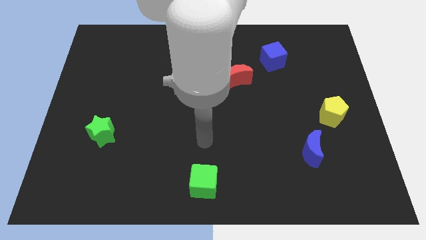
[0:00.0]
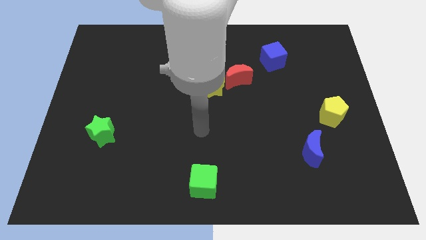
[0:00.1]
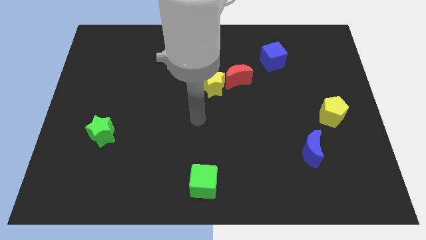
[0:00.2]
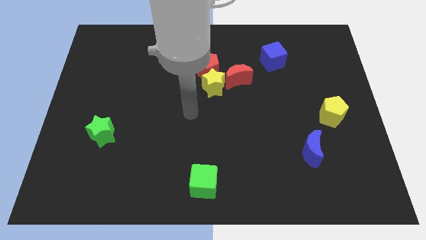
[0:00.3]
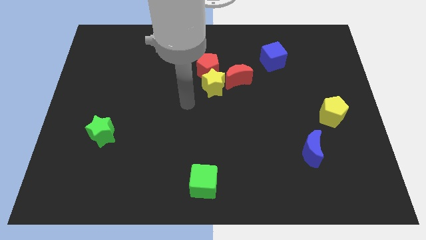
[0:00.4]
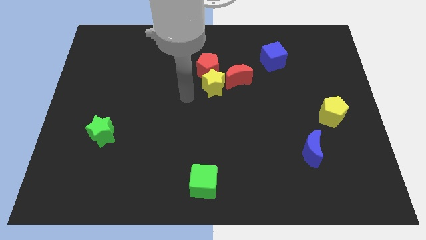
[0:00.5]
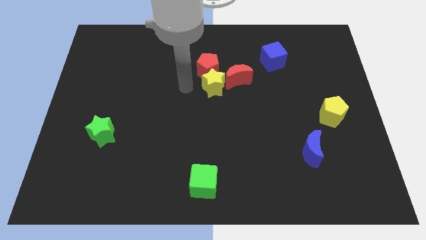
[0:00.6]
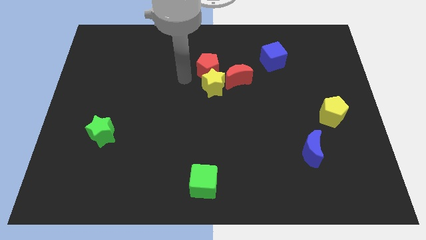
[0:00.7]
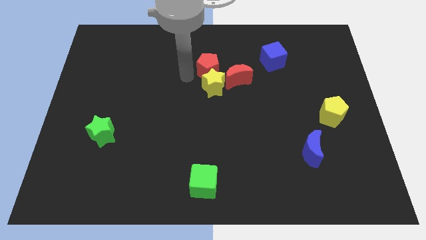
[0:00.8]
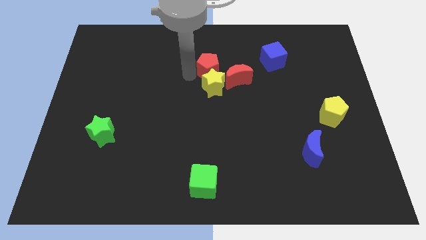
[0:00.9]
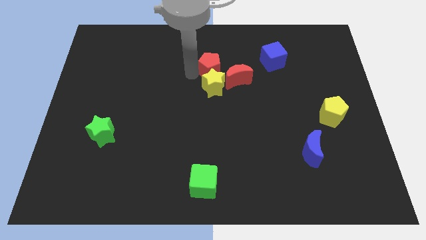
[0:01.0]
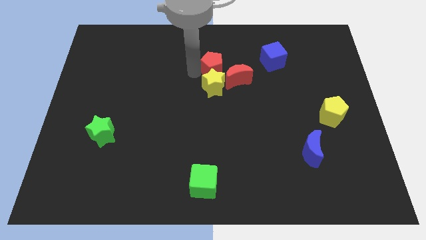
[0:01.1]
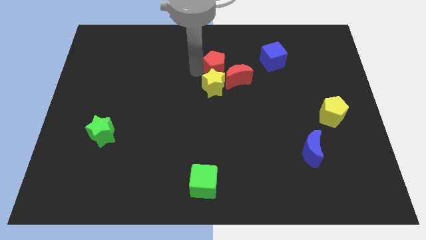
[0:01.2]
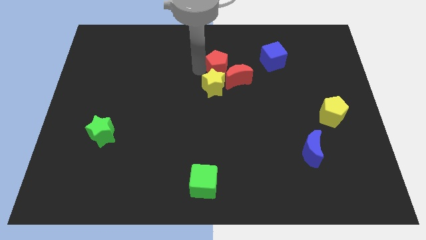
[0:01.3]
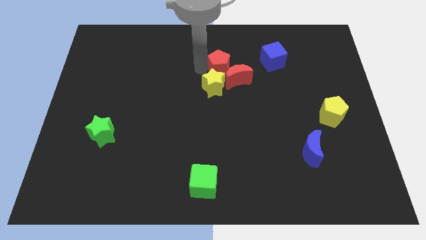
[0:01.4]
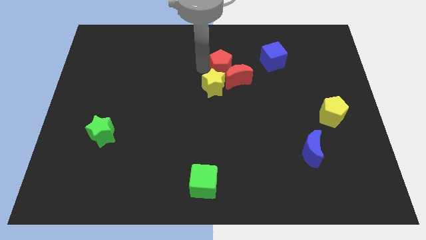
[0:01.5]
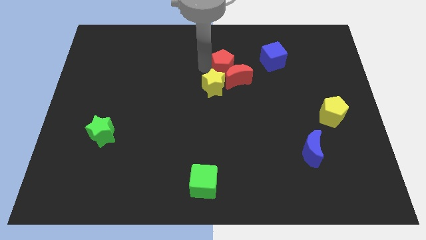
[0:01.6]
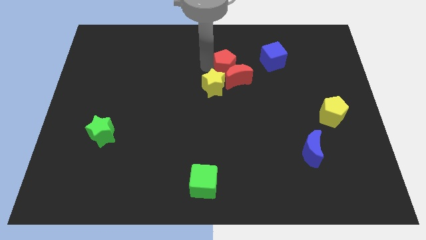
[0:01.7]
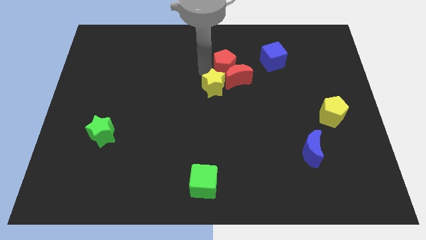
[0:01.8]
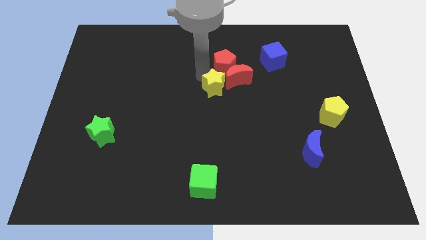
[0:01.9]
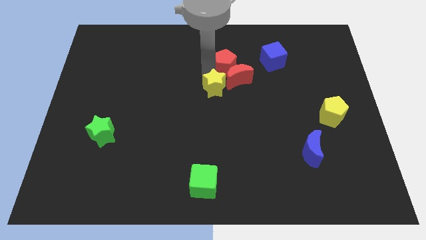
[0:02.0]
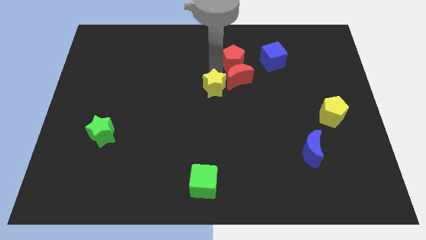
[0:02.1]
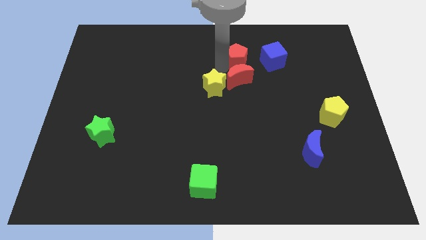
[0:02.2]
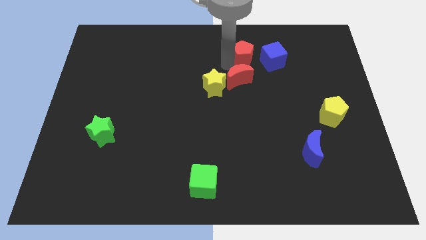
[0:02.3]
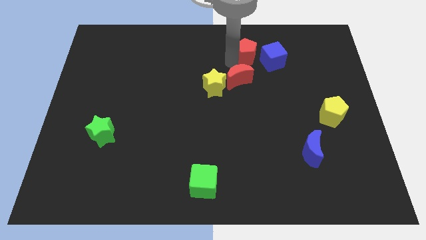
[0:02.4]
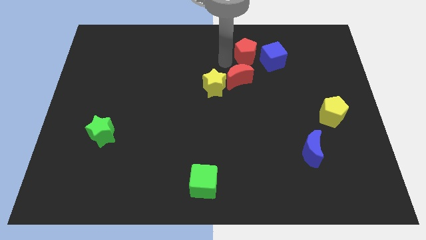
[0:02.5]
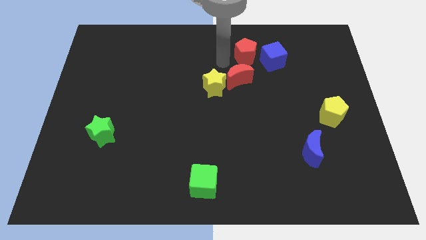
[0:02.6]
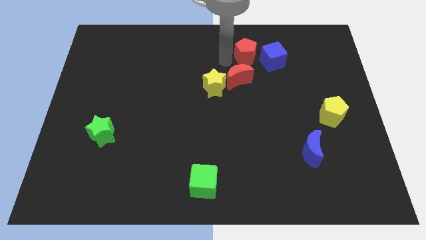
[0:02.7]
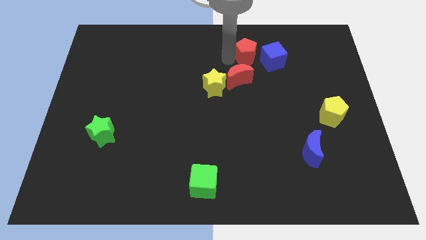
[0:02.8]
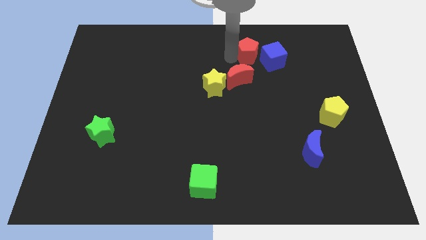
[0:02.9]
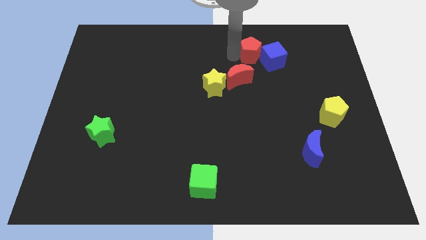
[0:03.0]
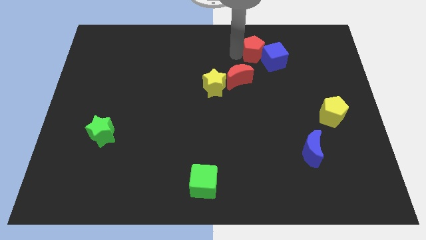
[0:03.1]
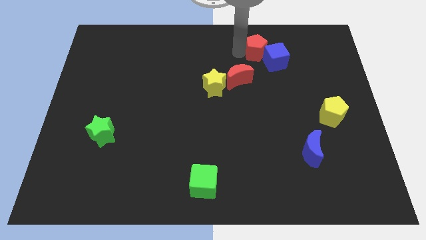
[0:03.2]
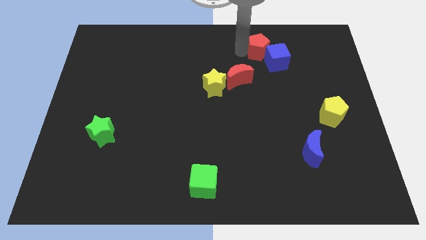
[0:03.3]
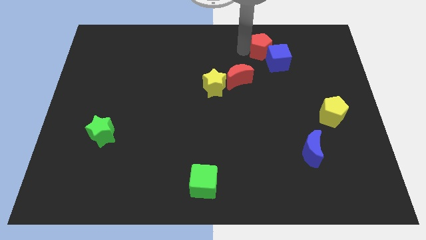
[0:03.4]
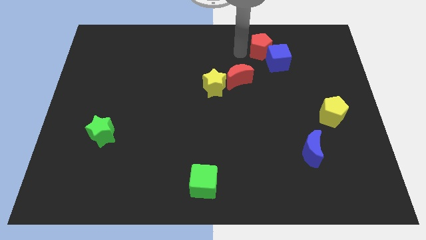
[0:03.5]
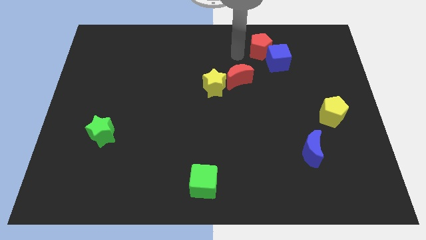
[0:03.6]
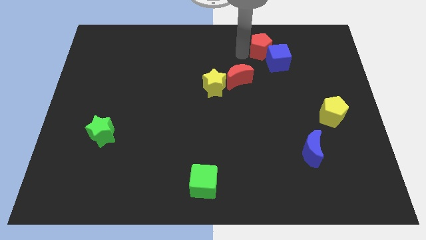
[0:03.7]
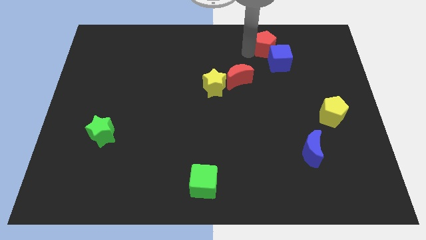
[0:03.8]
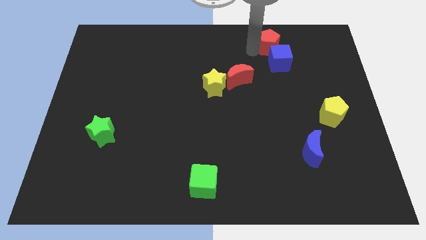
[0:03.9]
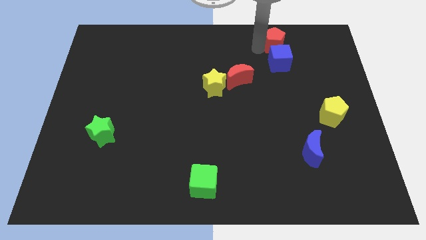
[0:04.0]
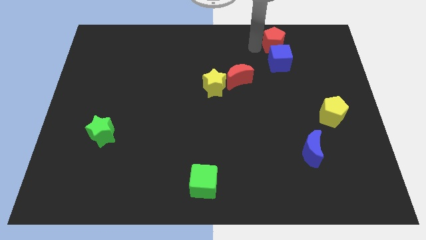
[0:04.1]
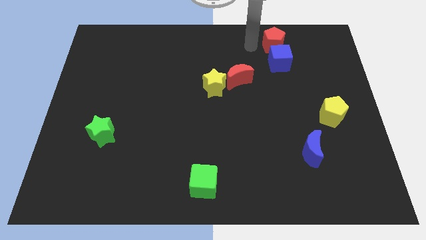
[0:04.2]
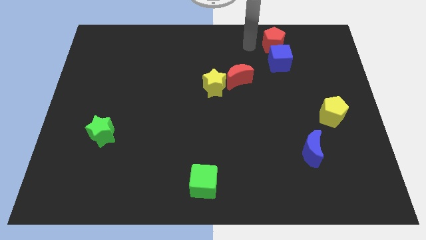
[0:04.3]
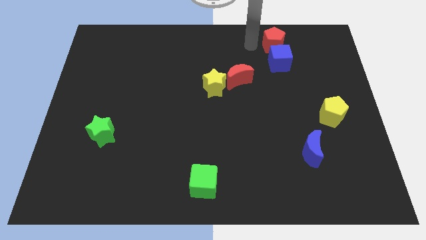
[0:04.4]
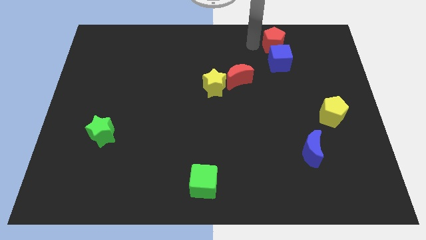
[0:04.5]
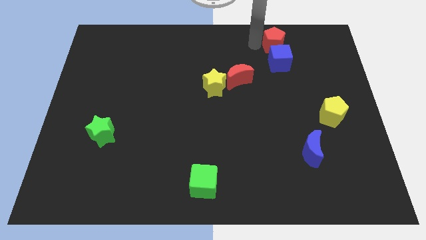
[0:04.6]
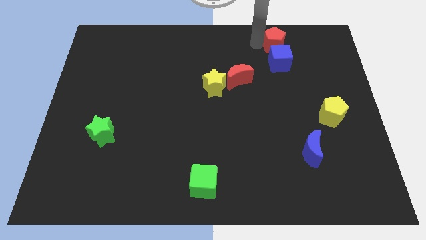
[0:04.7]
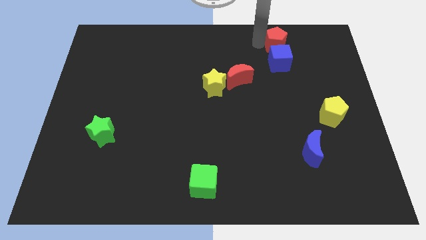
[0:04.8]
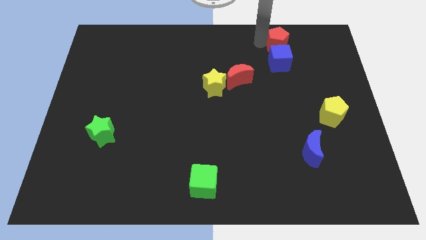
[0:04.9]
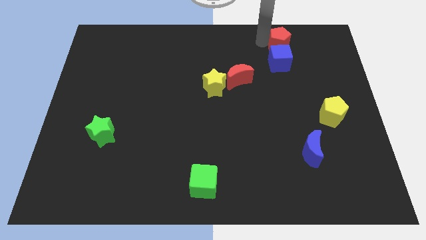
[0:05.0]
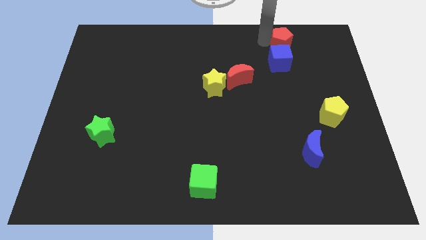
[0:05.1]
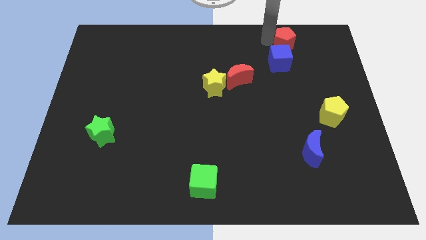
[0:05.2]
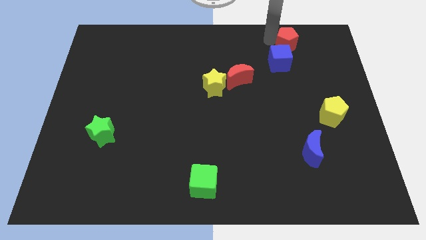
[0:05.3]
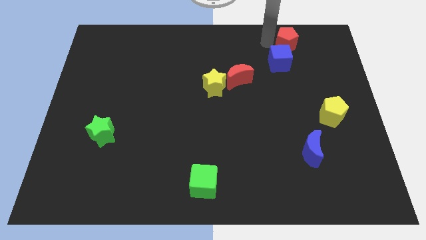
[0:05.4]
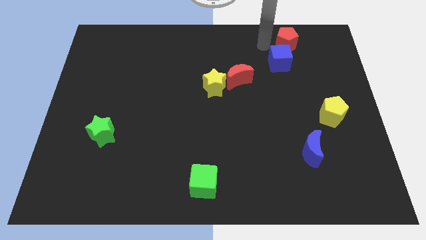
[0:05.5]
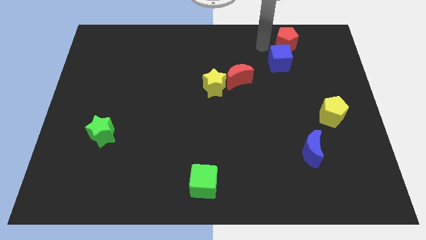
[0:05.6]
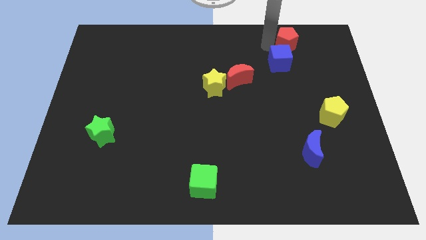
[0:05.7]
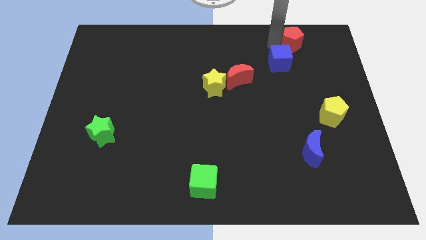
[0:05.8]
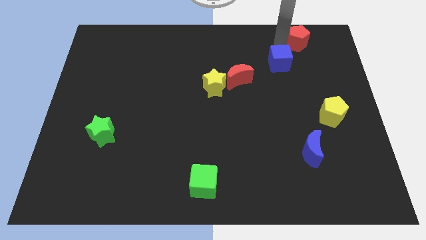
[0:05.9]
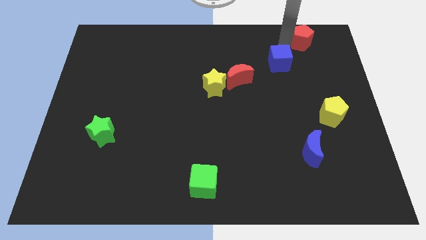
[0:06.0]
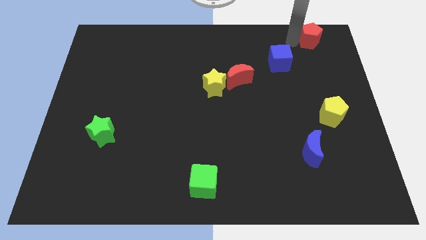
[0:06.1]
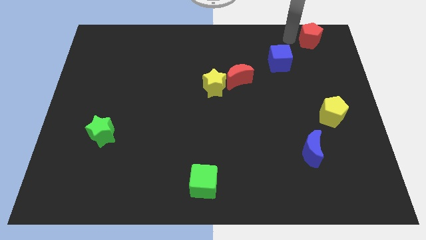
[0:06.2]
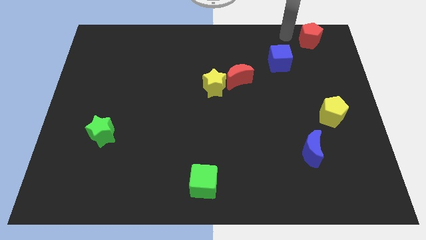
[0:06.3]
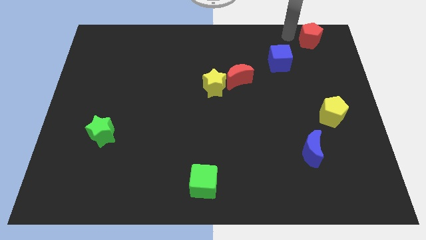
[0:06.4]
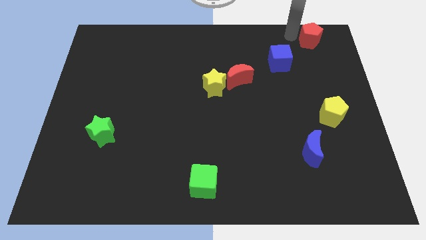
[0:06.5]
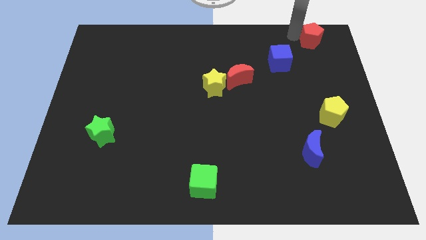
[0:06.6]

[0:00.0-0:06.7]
push the red pentagon to the top right

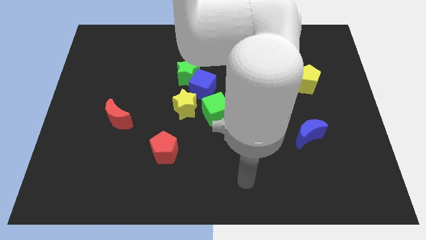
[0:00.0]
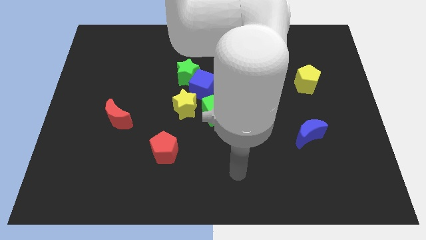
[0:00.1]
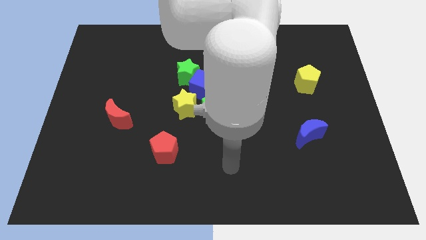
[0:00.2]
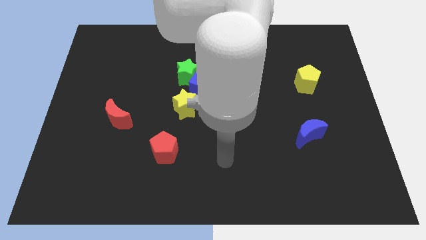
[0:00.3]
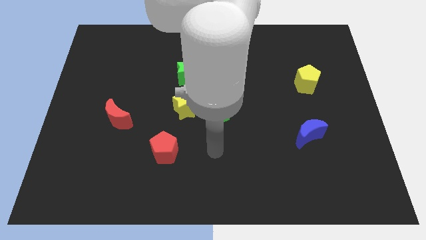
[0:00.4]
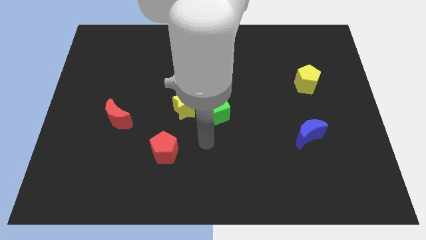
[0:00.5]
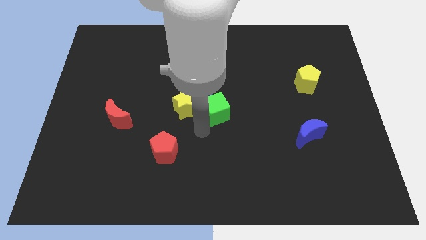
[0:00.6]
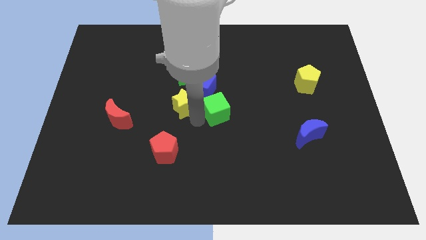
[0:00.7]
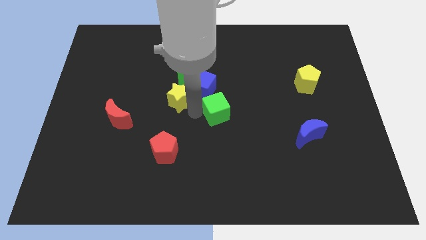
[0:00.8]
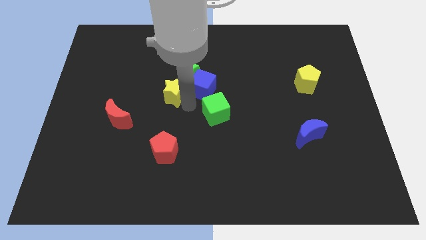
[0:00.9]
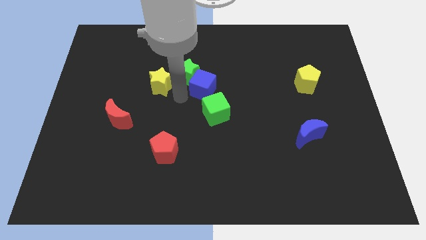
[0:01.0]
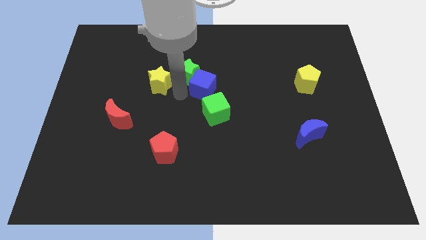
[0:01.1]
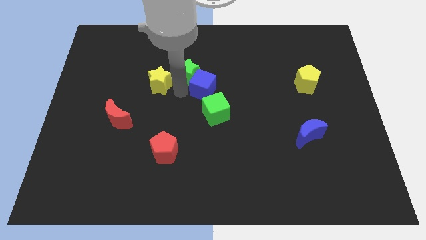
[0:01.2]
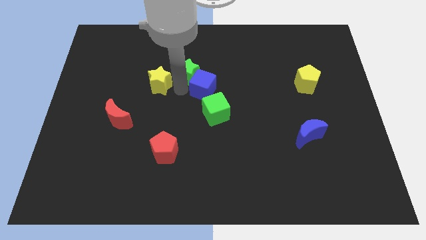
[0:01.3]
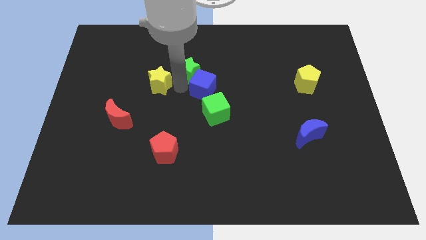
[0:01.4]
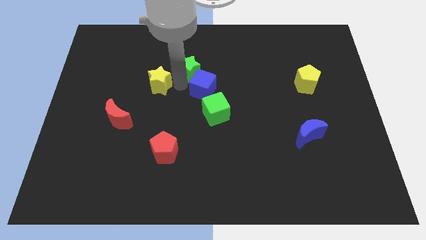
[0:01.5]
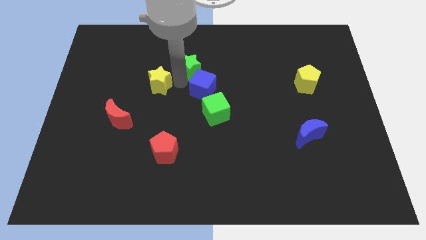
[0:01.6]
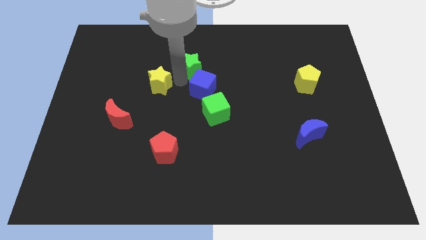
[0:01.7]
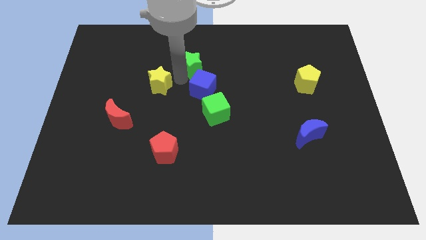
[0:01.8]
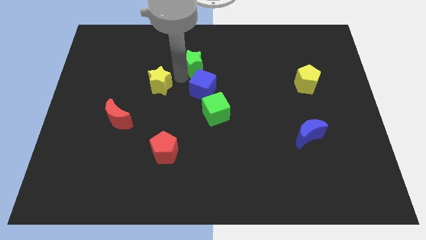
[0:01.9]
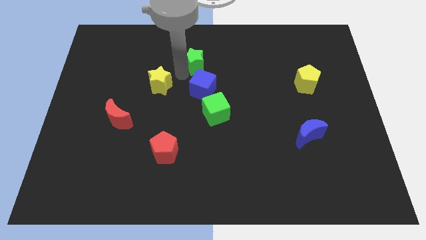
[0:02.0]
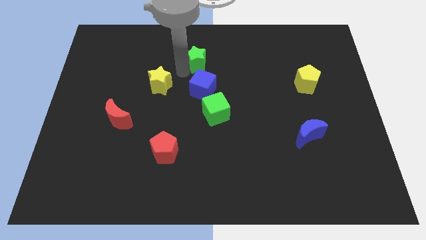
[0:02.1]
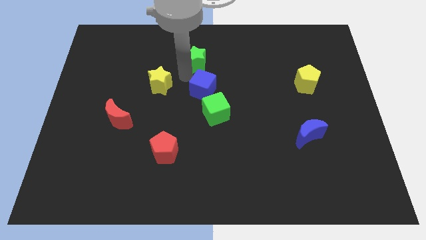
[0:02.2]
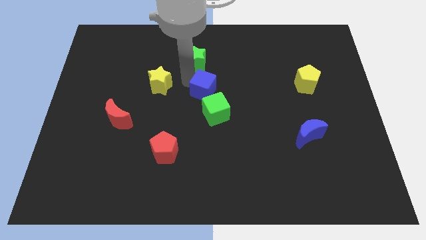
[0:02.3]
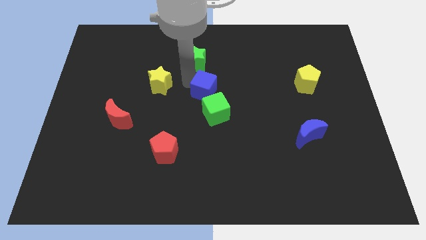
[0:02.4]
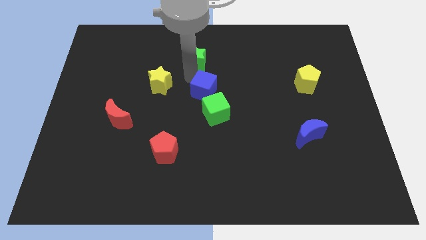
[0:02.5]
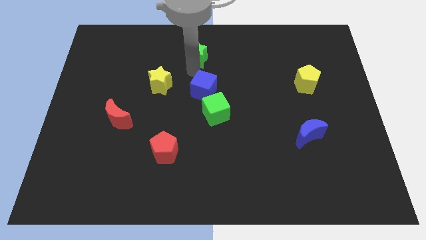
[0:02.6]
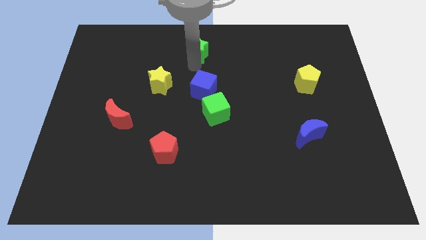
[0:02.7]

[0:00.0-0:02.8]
push the green star to the top side
